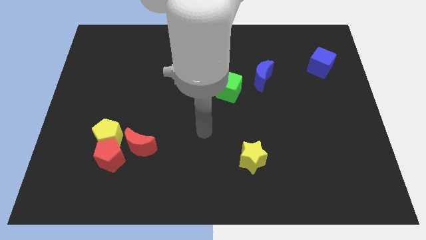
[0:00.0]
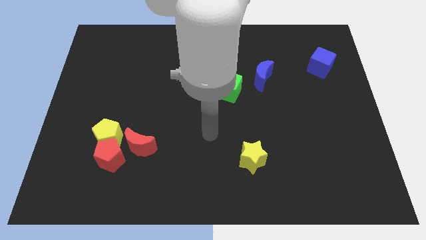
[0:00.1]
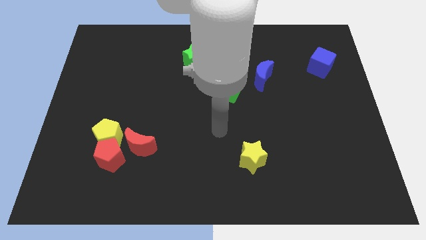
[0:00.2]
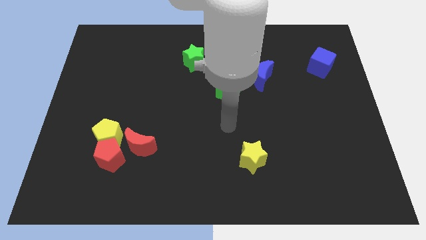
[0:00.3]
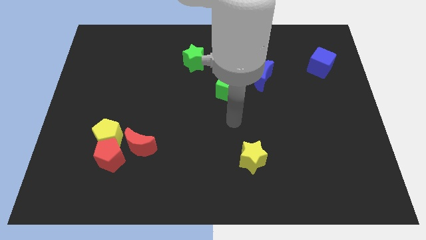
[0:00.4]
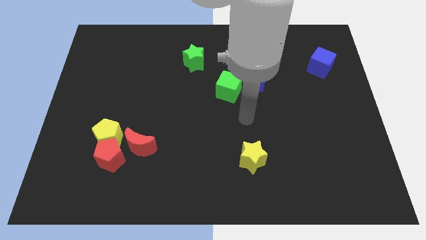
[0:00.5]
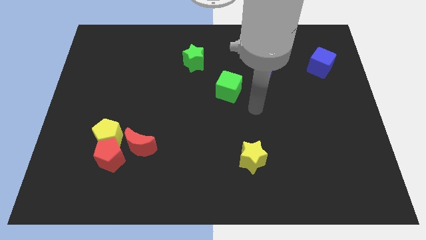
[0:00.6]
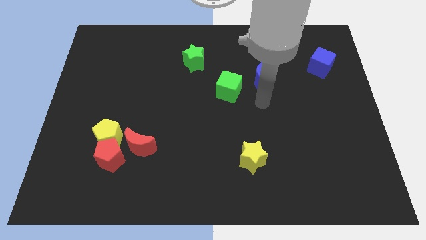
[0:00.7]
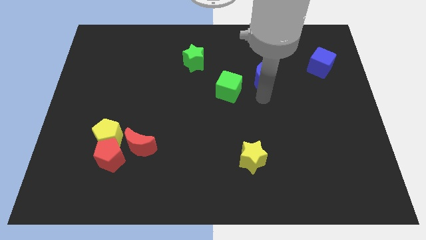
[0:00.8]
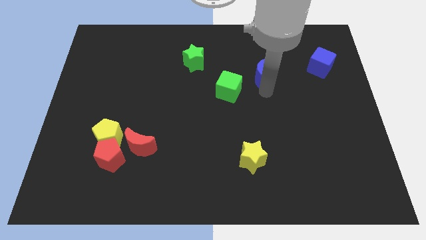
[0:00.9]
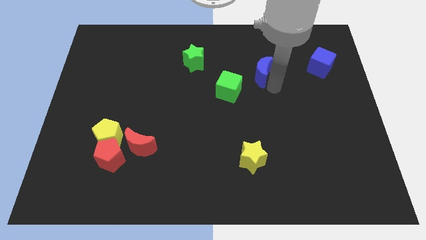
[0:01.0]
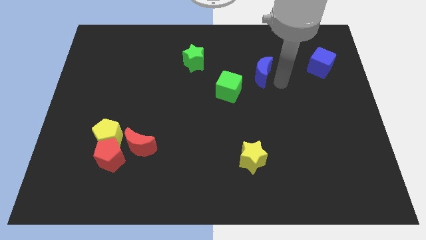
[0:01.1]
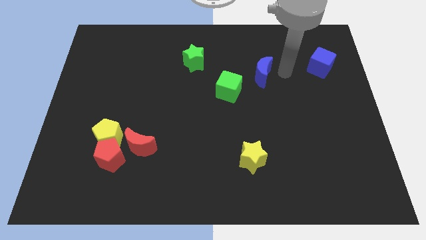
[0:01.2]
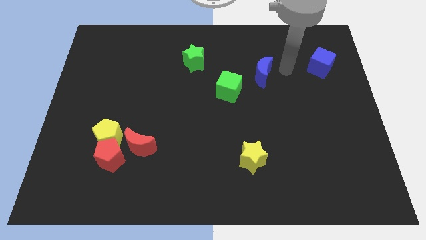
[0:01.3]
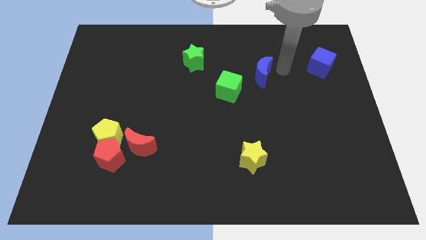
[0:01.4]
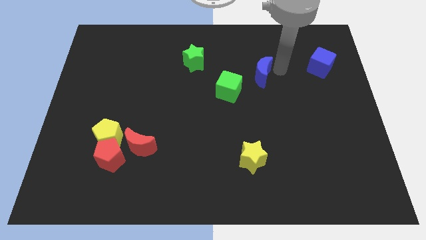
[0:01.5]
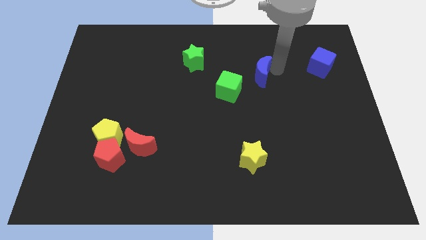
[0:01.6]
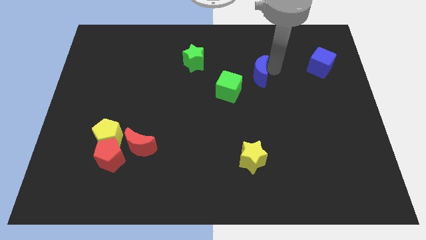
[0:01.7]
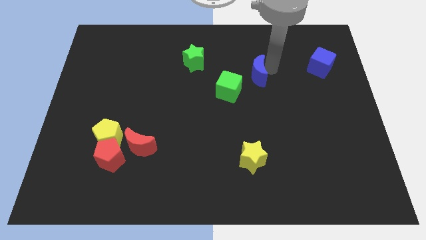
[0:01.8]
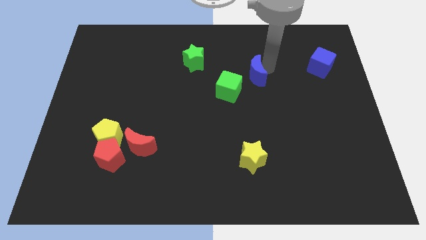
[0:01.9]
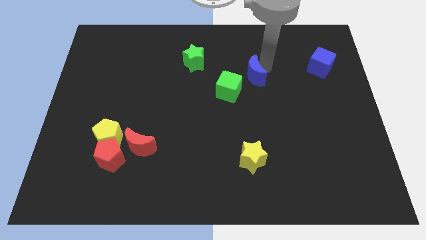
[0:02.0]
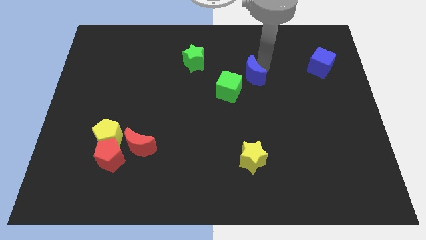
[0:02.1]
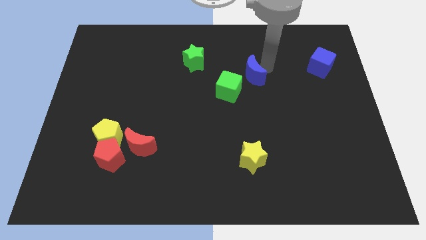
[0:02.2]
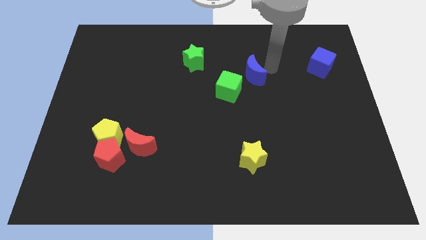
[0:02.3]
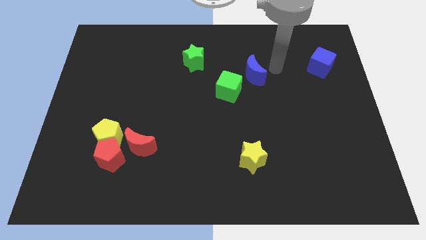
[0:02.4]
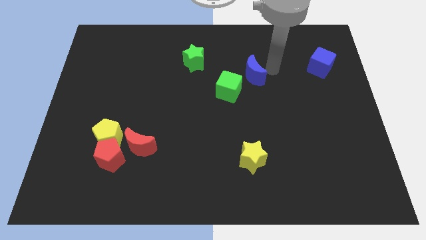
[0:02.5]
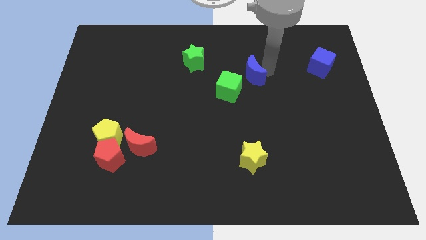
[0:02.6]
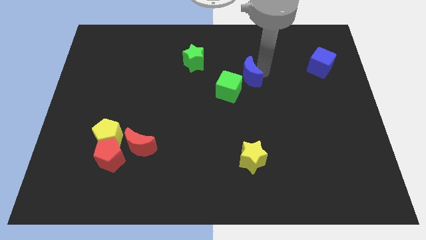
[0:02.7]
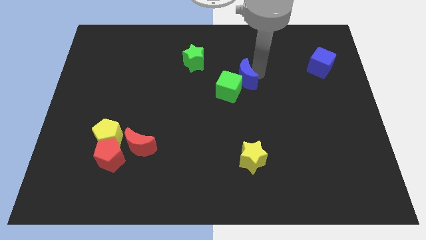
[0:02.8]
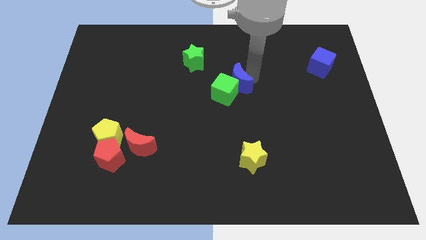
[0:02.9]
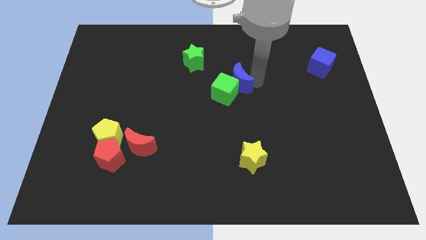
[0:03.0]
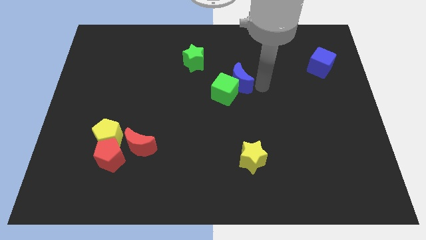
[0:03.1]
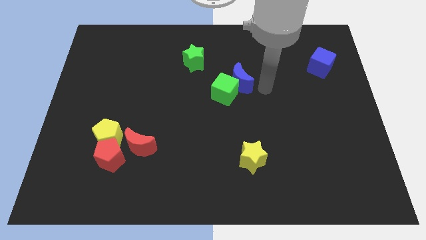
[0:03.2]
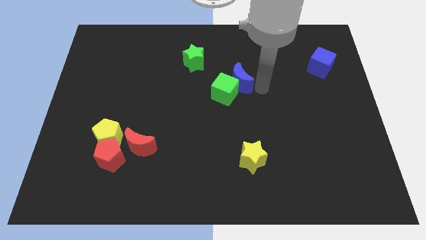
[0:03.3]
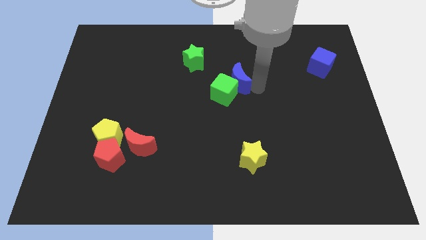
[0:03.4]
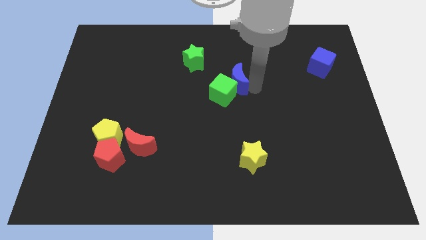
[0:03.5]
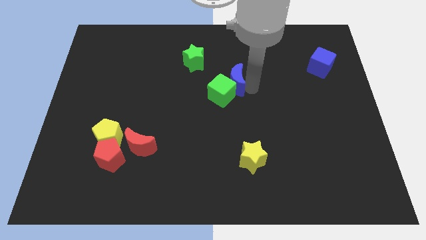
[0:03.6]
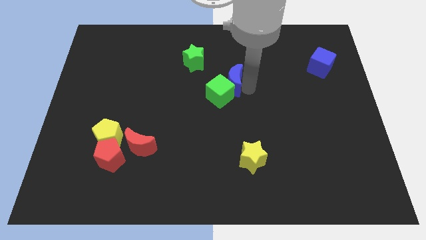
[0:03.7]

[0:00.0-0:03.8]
move the blue moon to the left a little

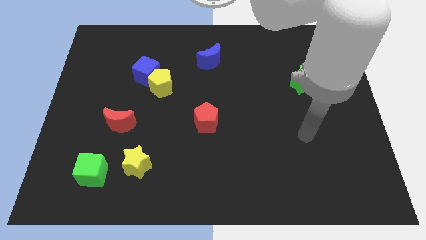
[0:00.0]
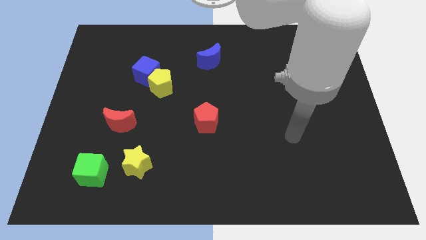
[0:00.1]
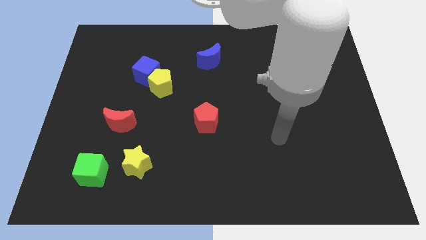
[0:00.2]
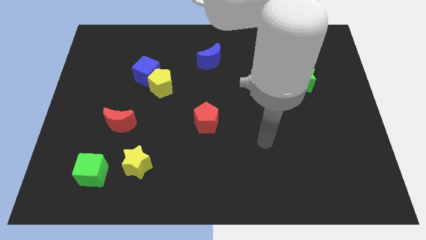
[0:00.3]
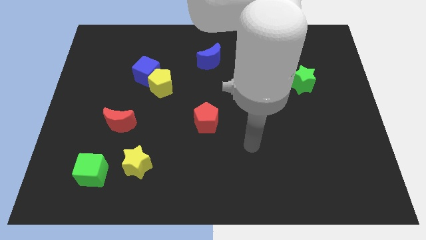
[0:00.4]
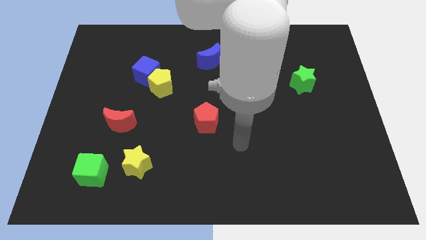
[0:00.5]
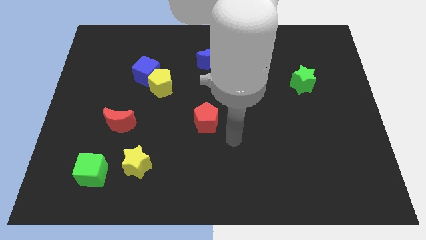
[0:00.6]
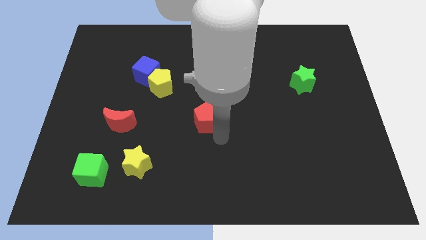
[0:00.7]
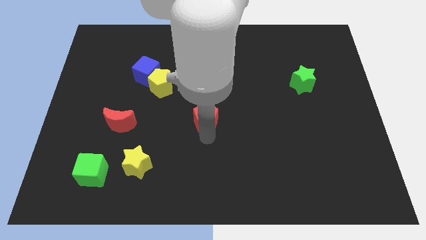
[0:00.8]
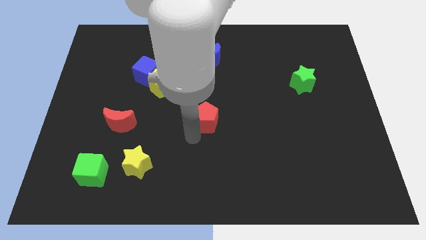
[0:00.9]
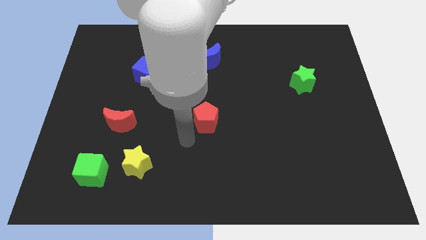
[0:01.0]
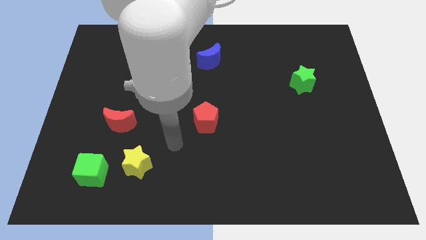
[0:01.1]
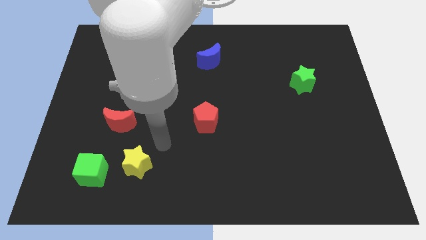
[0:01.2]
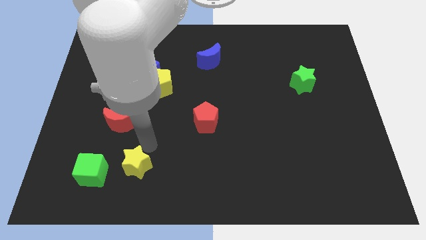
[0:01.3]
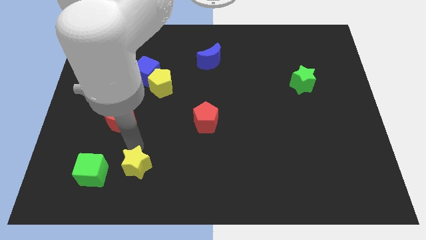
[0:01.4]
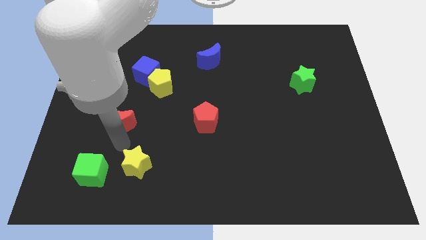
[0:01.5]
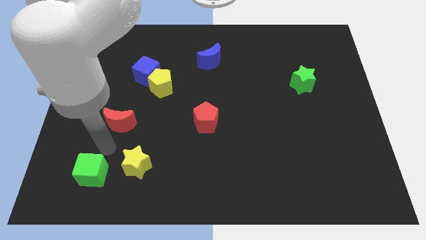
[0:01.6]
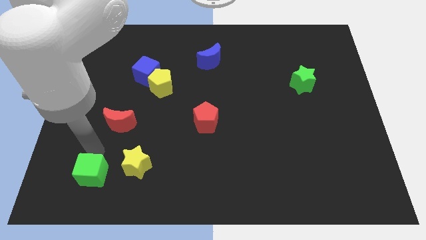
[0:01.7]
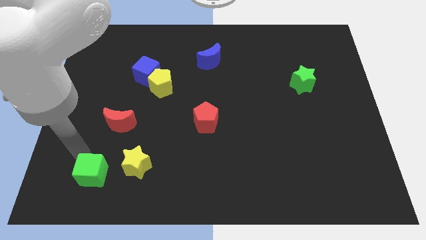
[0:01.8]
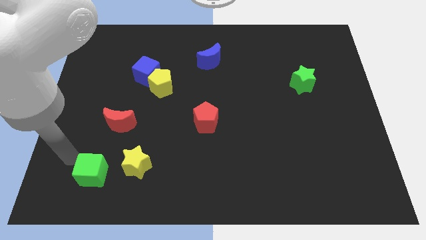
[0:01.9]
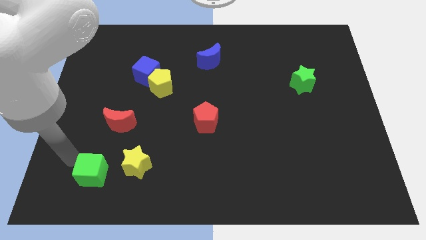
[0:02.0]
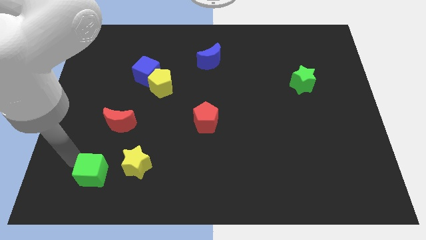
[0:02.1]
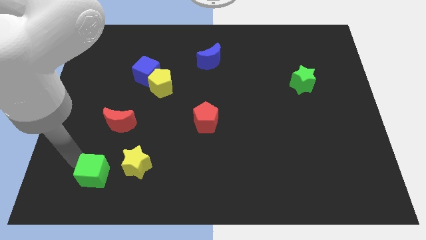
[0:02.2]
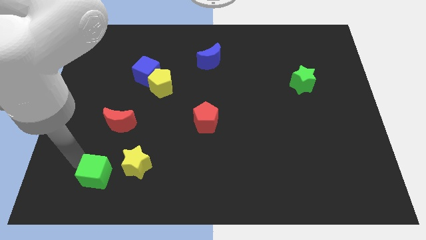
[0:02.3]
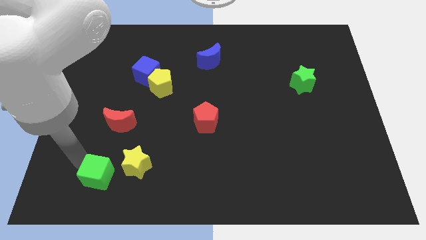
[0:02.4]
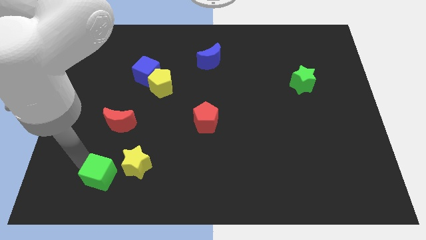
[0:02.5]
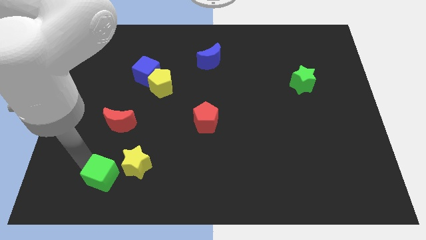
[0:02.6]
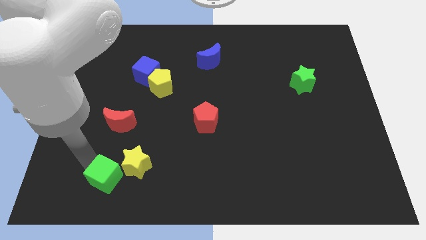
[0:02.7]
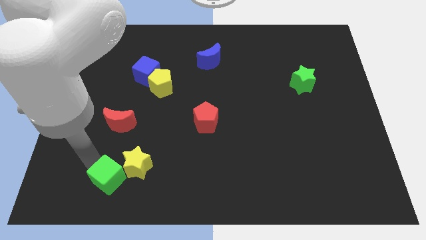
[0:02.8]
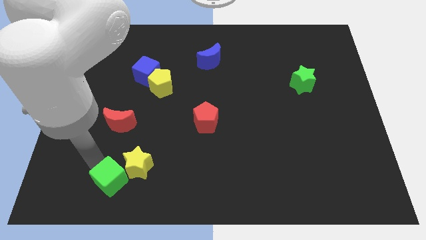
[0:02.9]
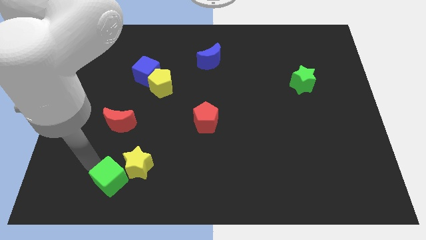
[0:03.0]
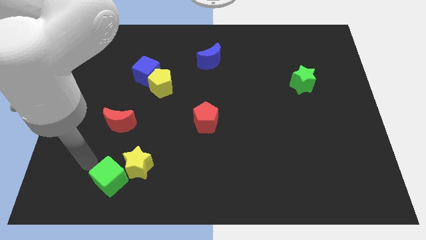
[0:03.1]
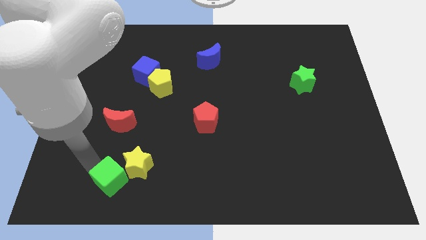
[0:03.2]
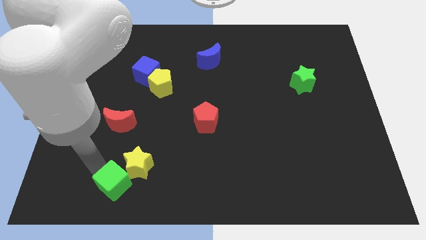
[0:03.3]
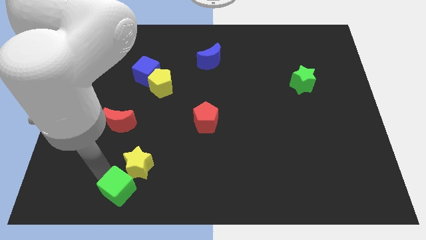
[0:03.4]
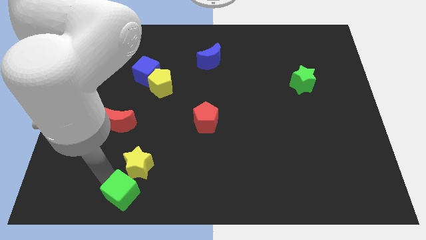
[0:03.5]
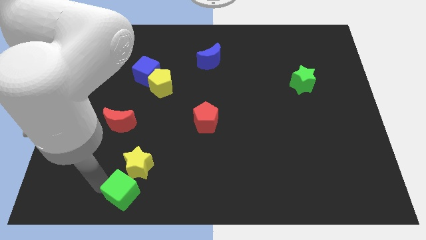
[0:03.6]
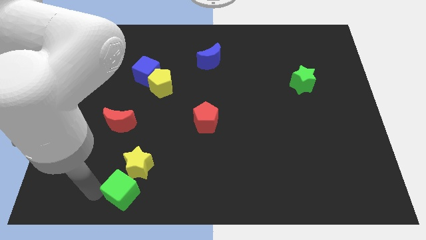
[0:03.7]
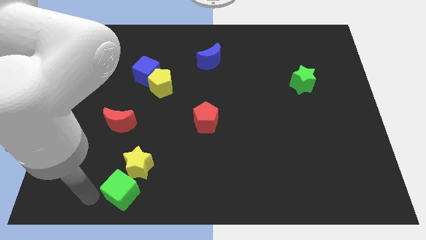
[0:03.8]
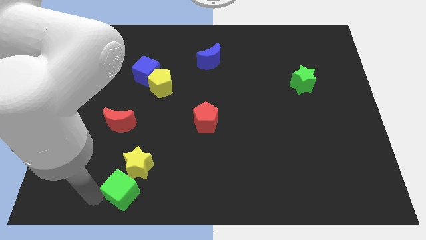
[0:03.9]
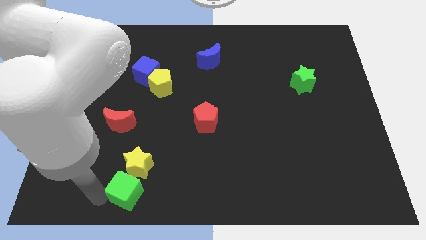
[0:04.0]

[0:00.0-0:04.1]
slide the green cube a little bit to the right
